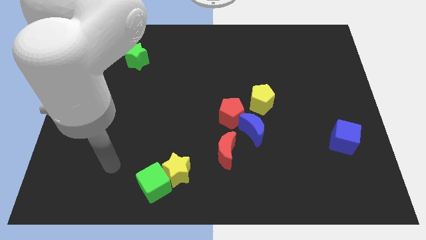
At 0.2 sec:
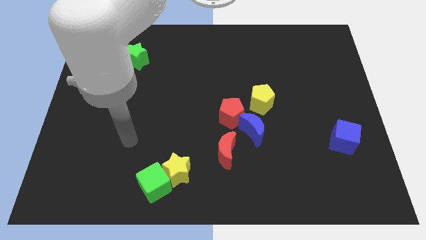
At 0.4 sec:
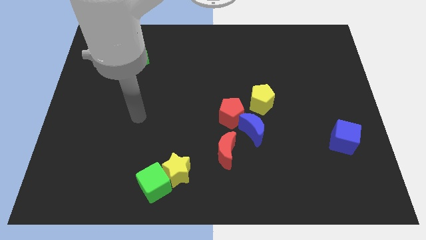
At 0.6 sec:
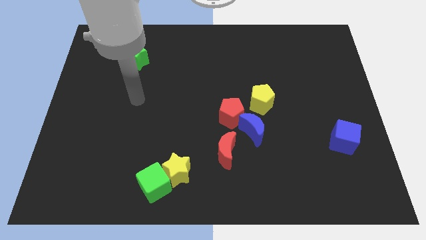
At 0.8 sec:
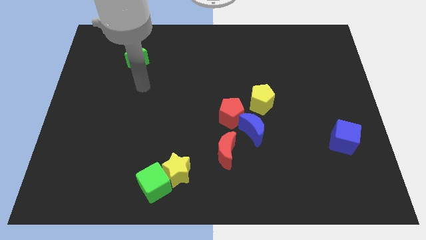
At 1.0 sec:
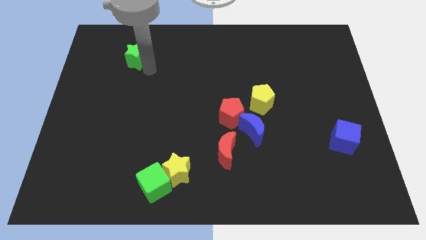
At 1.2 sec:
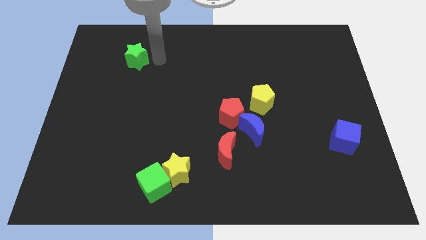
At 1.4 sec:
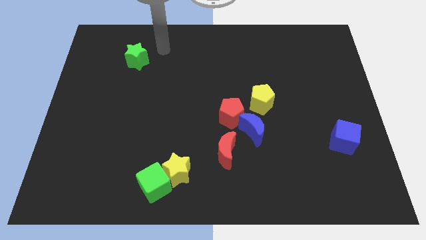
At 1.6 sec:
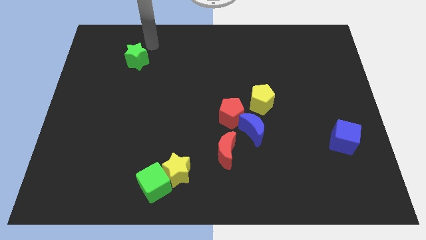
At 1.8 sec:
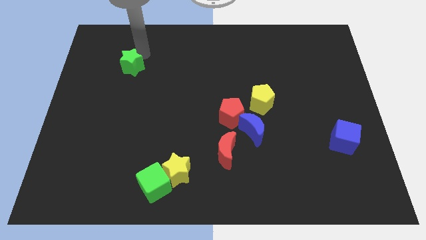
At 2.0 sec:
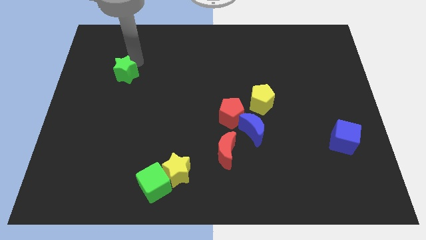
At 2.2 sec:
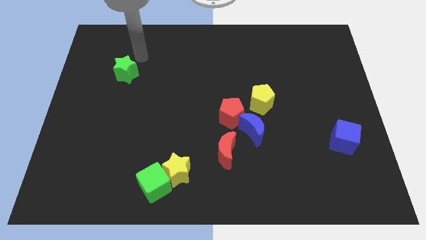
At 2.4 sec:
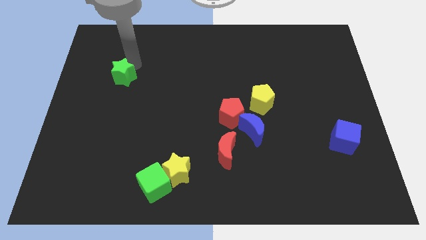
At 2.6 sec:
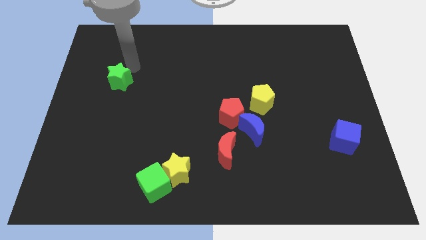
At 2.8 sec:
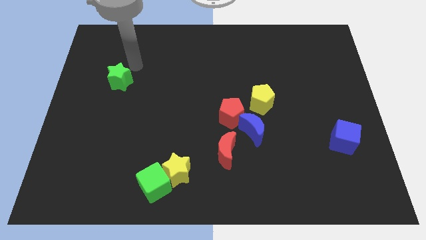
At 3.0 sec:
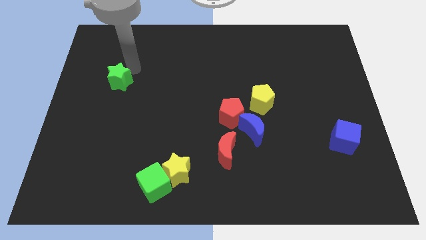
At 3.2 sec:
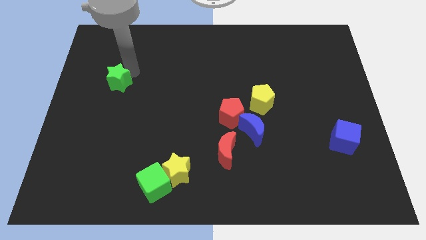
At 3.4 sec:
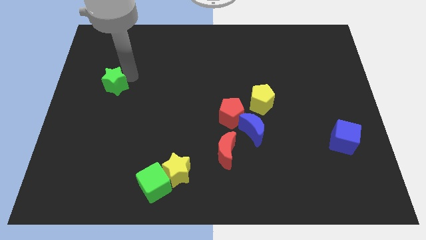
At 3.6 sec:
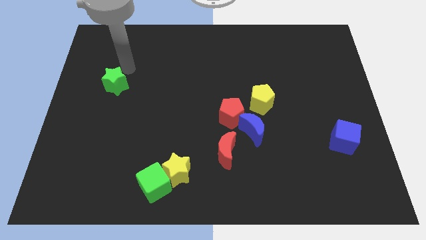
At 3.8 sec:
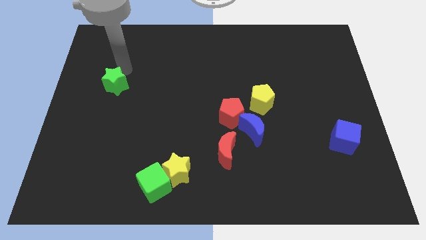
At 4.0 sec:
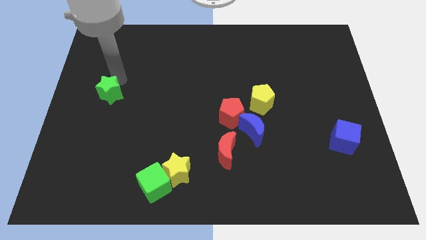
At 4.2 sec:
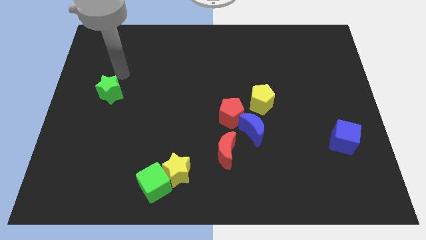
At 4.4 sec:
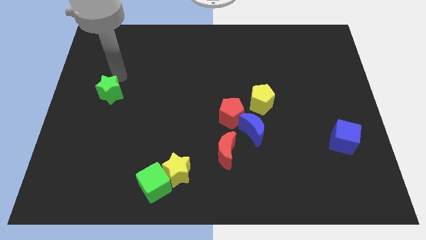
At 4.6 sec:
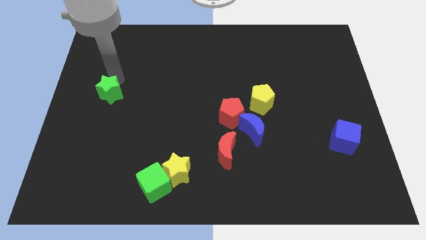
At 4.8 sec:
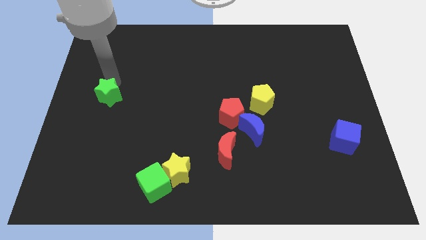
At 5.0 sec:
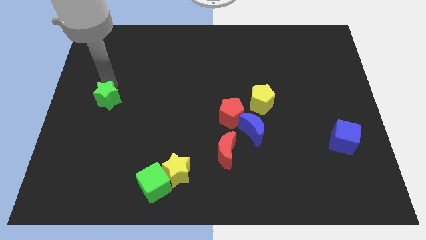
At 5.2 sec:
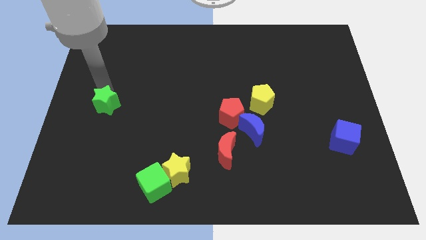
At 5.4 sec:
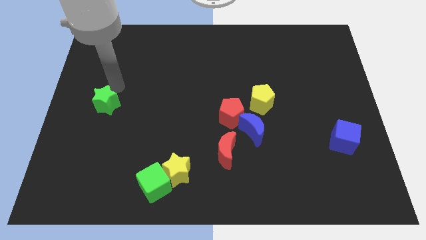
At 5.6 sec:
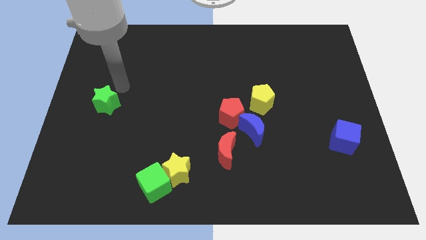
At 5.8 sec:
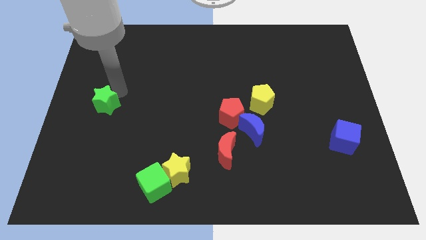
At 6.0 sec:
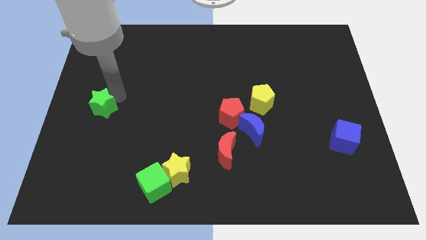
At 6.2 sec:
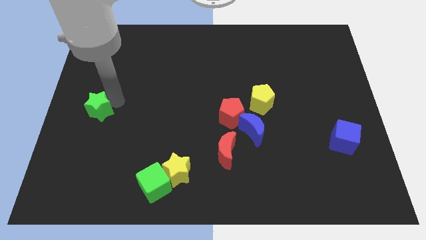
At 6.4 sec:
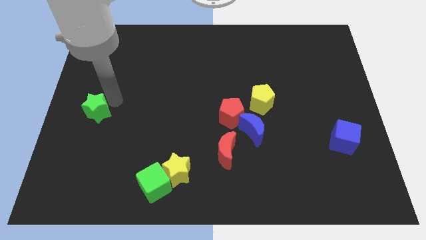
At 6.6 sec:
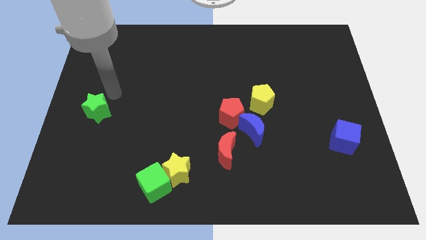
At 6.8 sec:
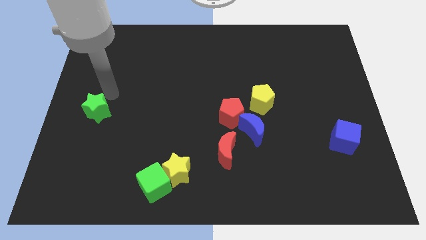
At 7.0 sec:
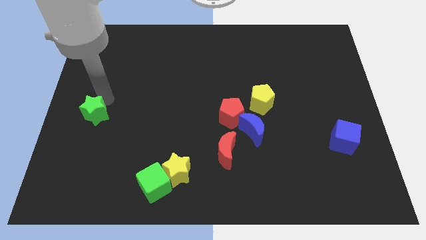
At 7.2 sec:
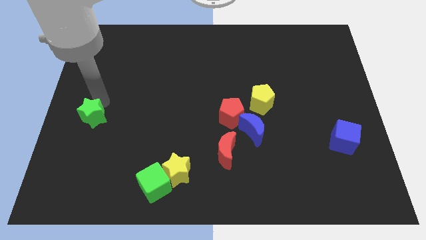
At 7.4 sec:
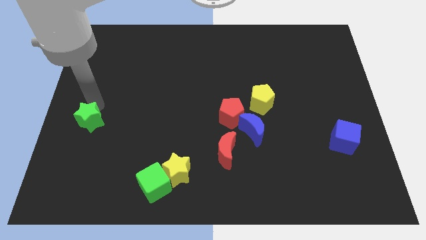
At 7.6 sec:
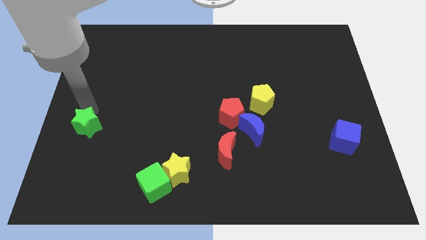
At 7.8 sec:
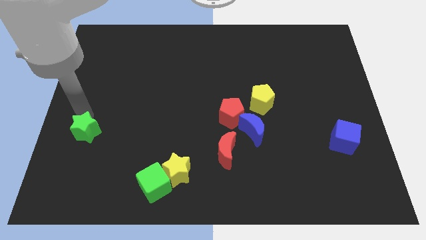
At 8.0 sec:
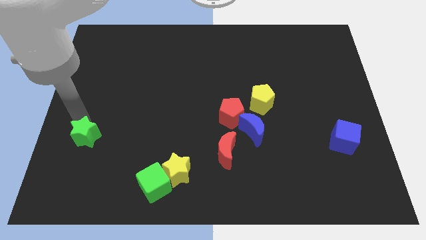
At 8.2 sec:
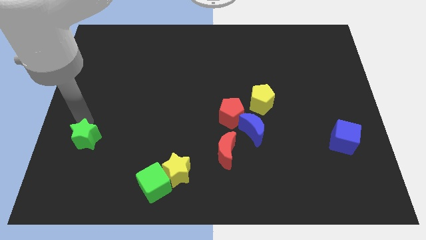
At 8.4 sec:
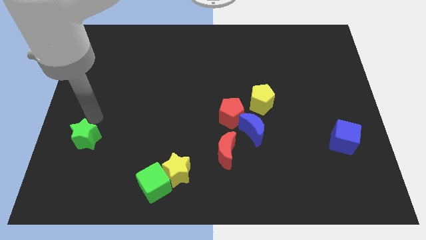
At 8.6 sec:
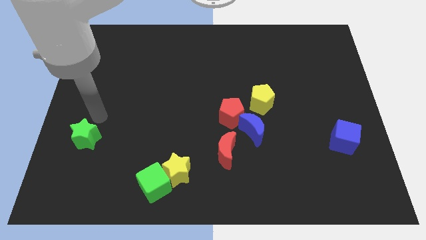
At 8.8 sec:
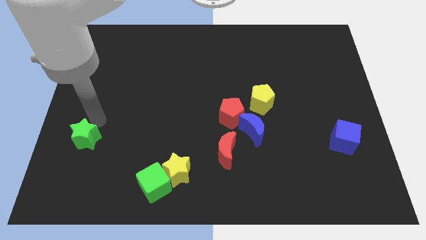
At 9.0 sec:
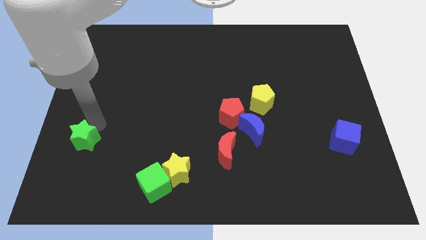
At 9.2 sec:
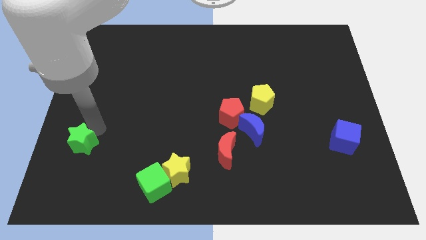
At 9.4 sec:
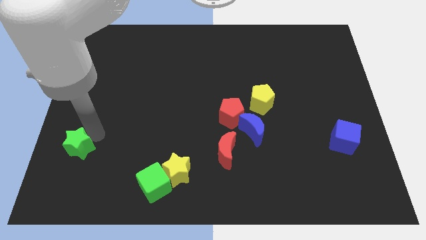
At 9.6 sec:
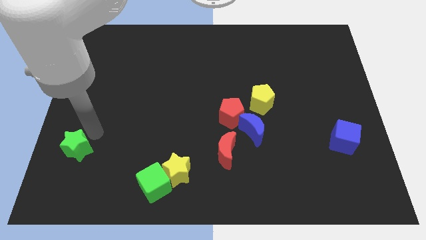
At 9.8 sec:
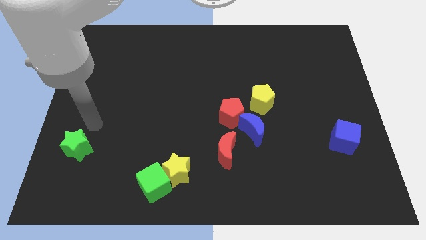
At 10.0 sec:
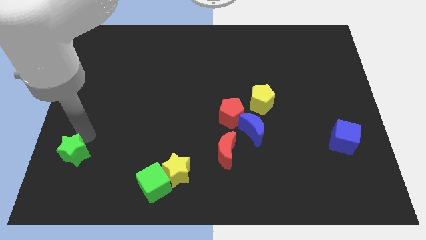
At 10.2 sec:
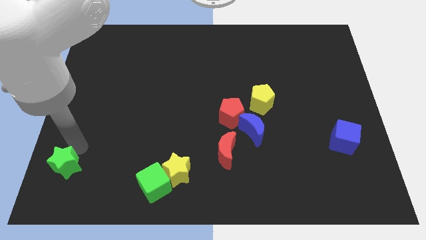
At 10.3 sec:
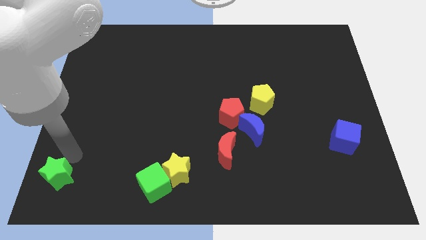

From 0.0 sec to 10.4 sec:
put the green star to the bottom left of the board

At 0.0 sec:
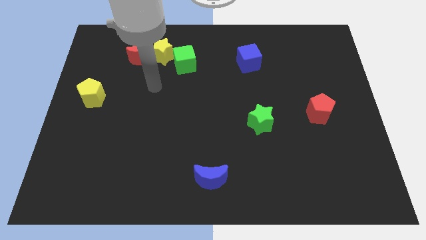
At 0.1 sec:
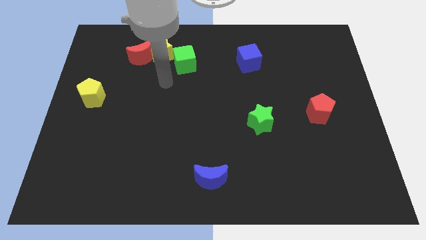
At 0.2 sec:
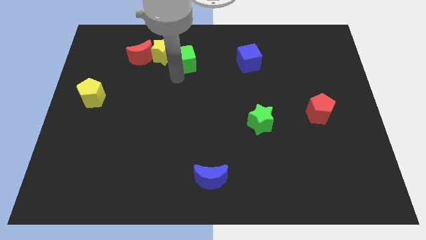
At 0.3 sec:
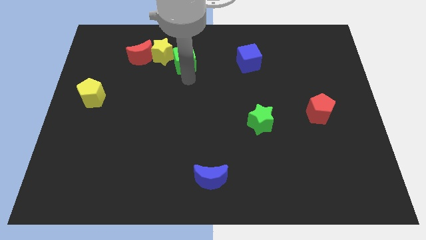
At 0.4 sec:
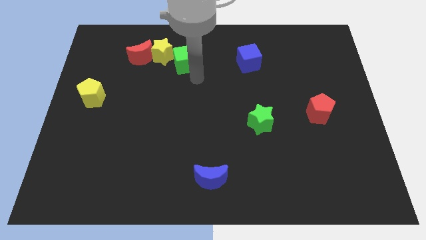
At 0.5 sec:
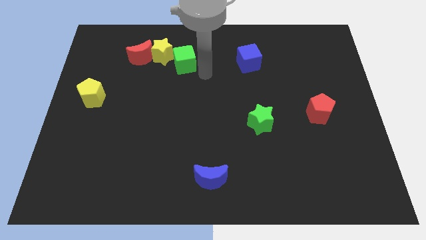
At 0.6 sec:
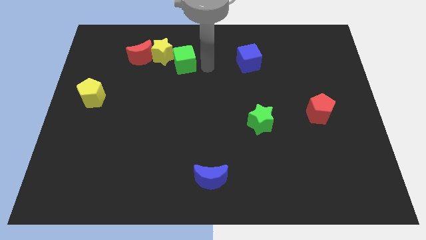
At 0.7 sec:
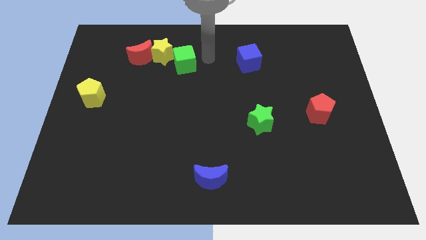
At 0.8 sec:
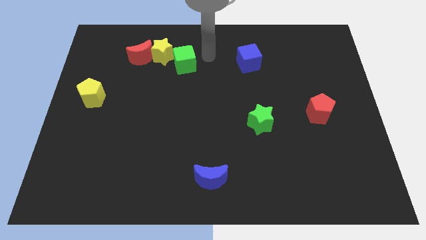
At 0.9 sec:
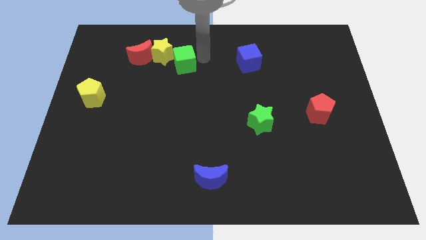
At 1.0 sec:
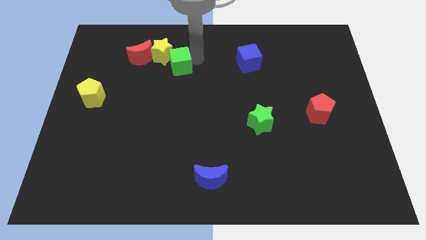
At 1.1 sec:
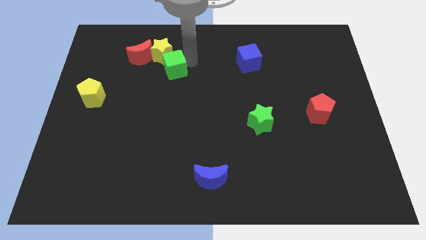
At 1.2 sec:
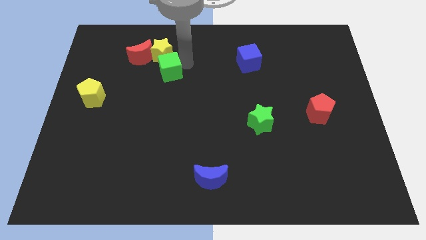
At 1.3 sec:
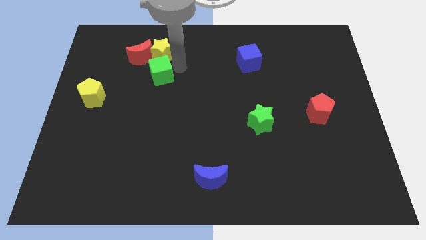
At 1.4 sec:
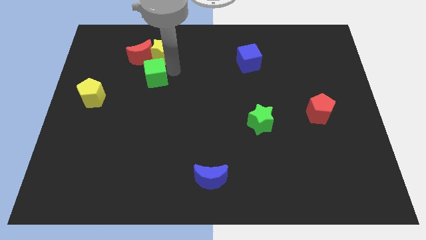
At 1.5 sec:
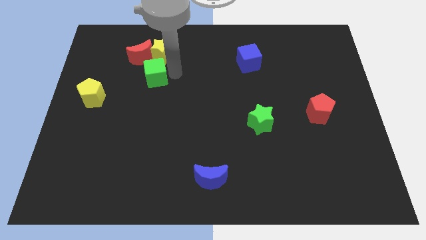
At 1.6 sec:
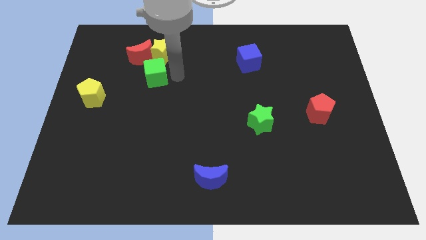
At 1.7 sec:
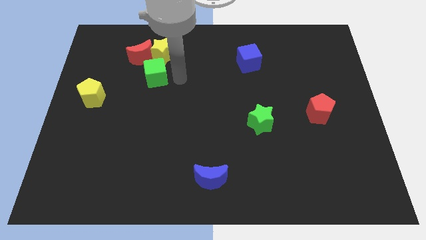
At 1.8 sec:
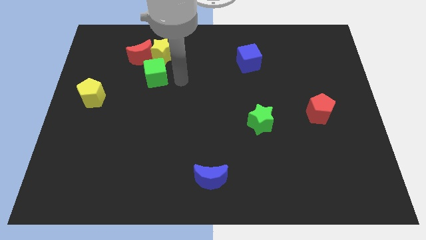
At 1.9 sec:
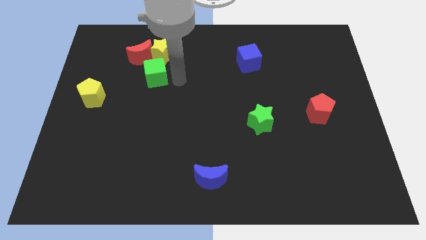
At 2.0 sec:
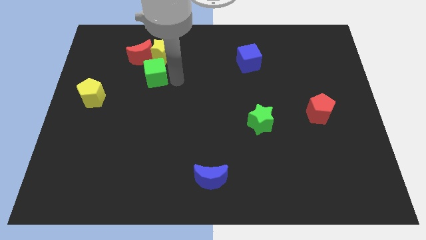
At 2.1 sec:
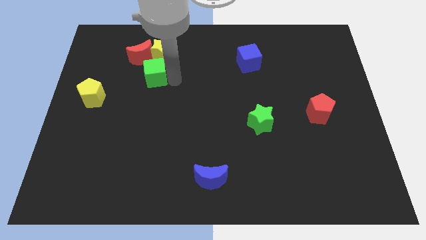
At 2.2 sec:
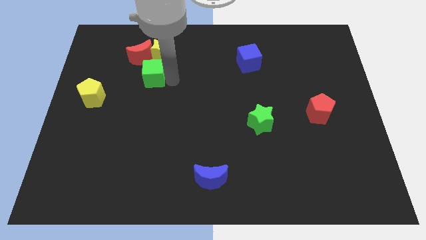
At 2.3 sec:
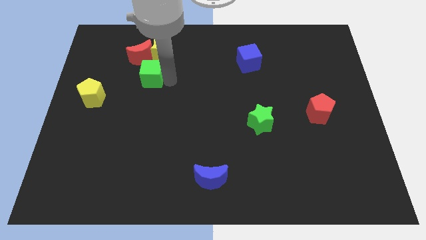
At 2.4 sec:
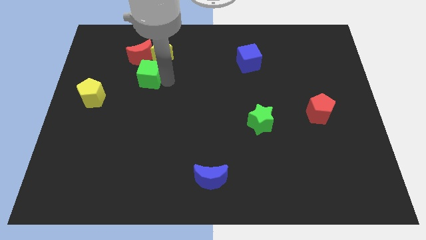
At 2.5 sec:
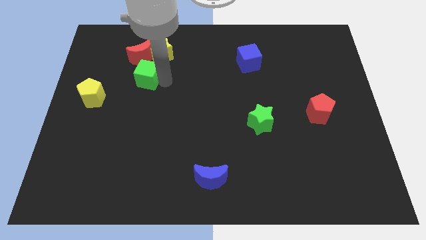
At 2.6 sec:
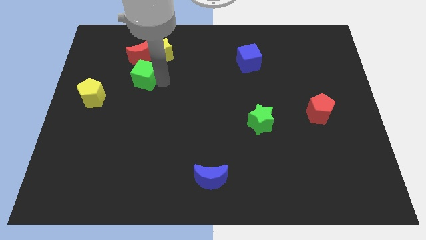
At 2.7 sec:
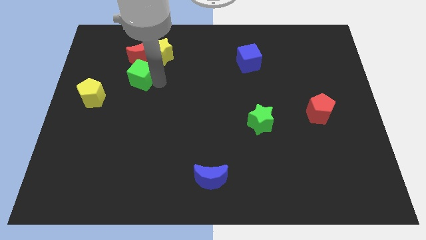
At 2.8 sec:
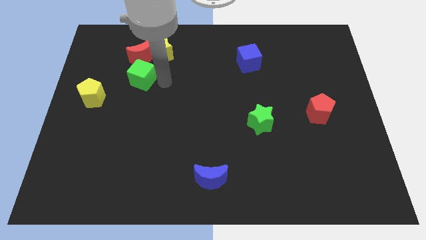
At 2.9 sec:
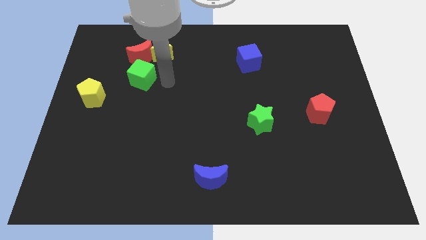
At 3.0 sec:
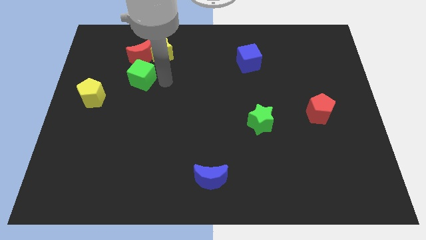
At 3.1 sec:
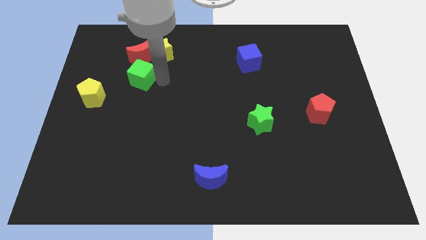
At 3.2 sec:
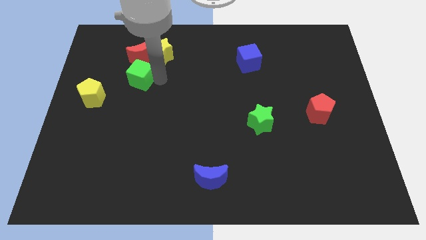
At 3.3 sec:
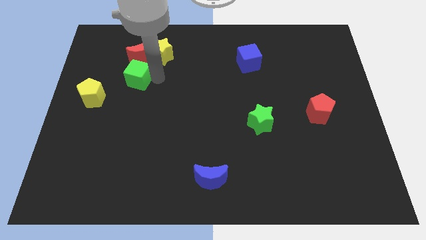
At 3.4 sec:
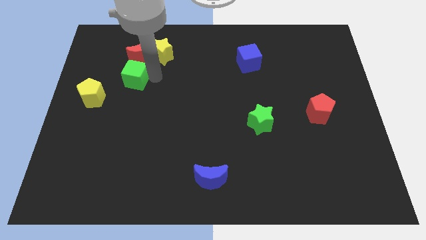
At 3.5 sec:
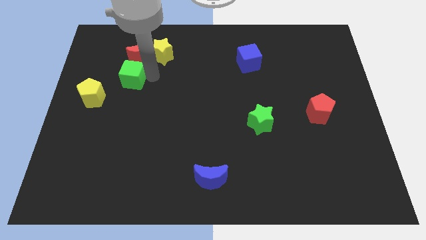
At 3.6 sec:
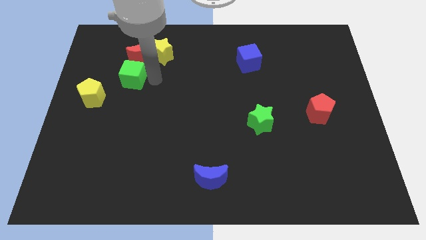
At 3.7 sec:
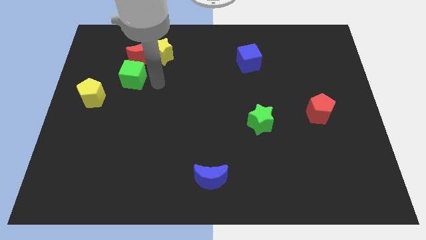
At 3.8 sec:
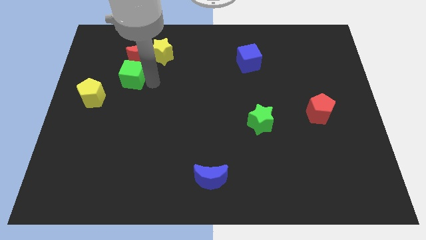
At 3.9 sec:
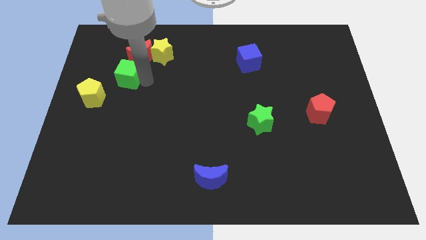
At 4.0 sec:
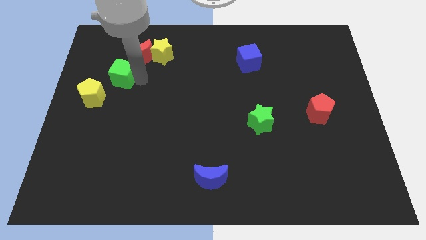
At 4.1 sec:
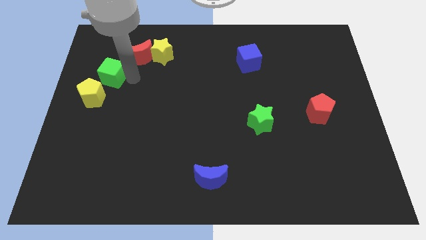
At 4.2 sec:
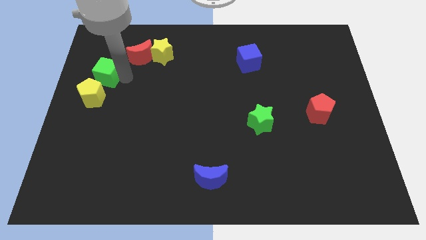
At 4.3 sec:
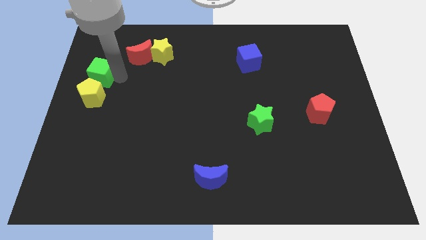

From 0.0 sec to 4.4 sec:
put the green cube to the left side of the board
